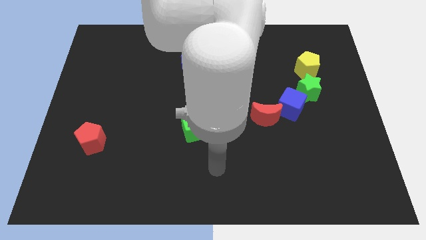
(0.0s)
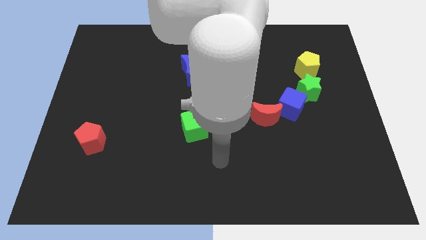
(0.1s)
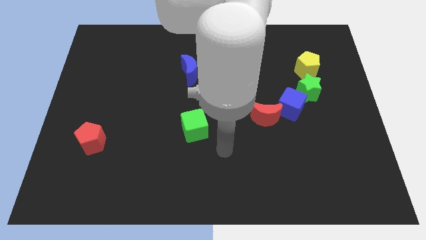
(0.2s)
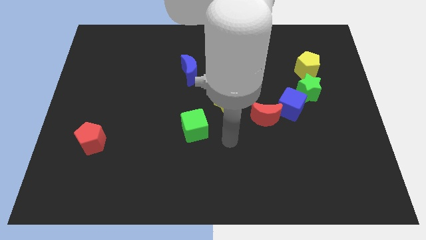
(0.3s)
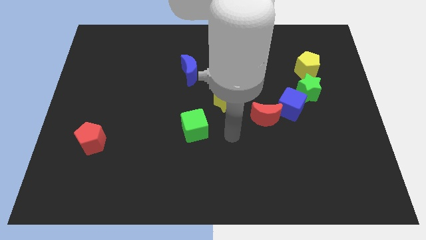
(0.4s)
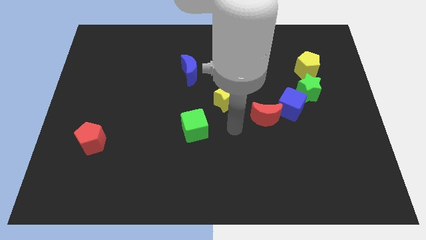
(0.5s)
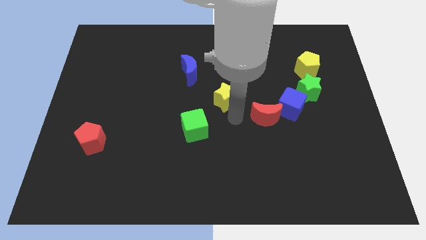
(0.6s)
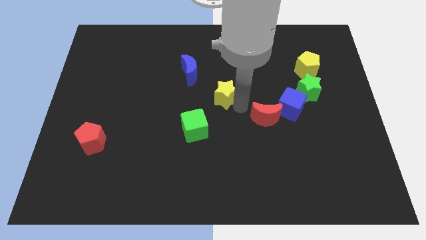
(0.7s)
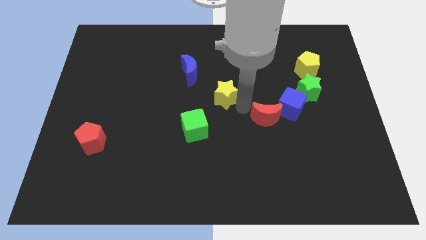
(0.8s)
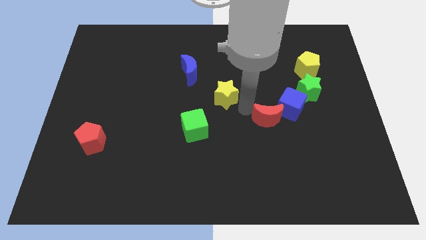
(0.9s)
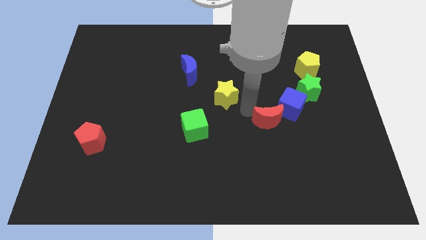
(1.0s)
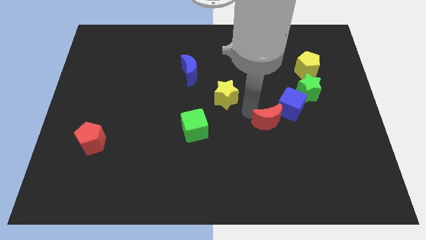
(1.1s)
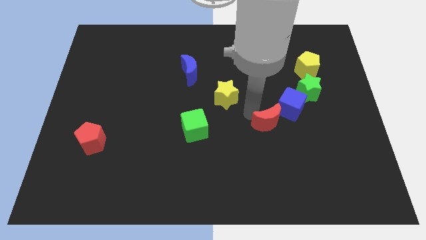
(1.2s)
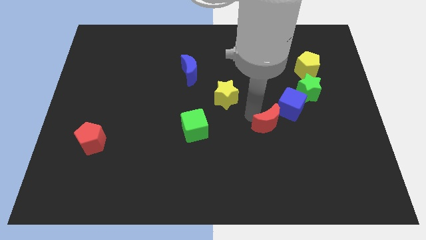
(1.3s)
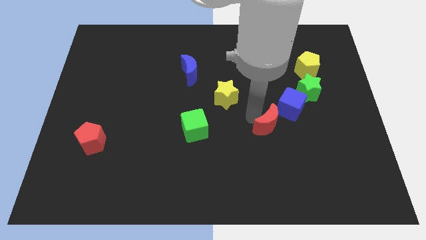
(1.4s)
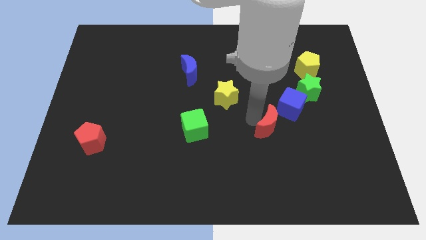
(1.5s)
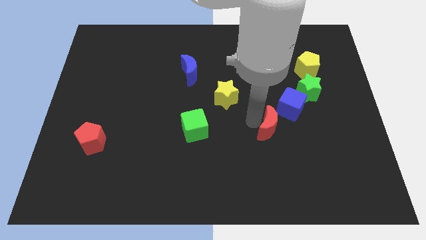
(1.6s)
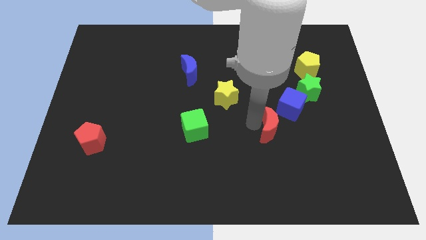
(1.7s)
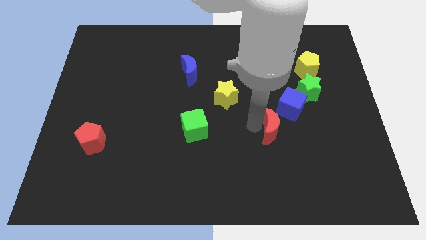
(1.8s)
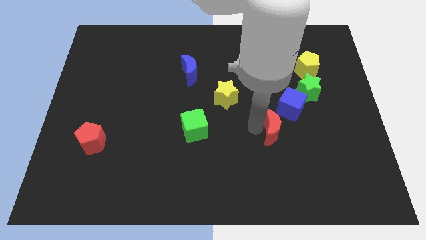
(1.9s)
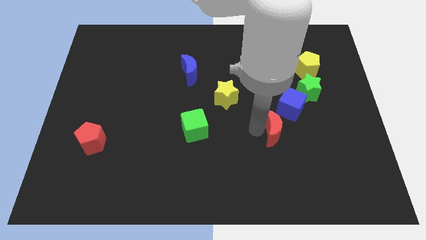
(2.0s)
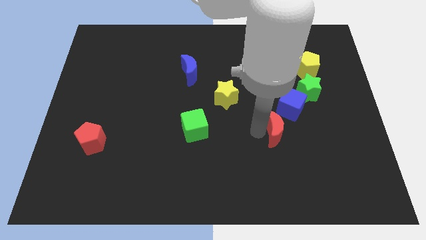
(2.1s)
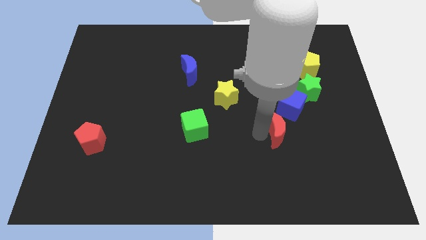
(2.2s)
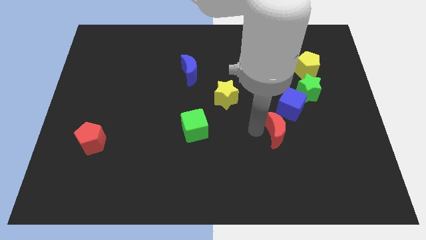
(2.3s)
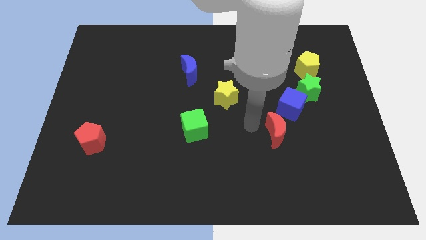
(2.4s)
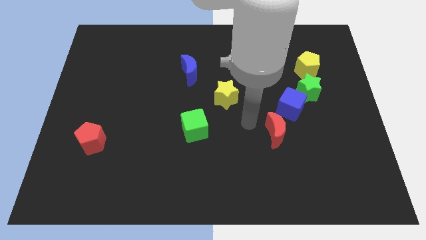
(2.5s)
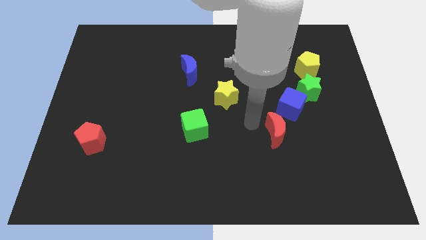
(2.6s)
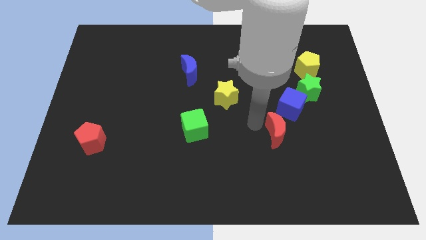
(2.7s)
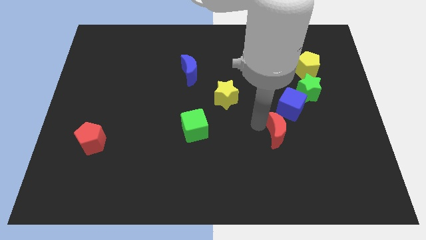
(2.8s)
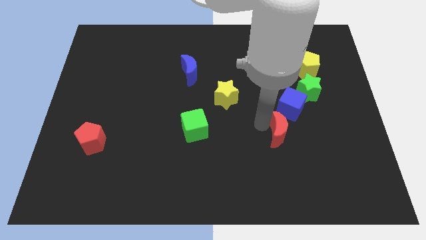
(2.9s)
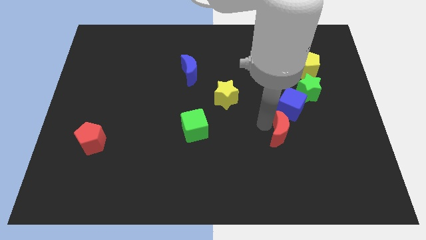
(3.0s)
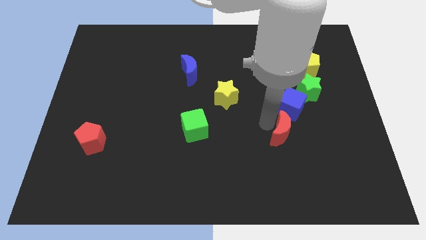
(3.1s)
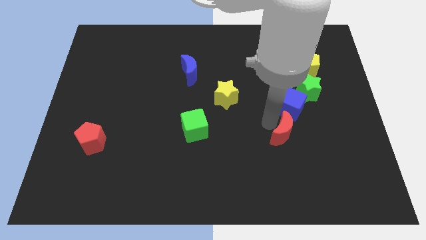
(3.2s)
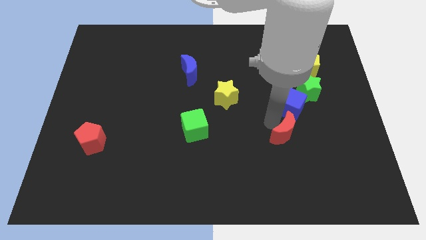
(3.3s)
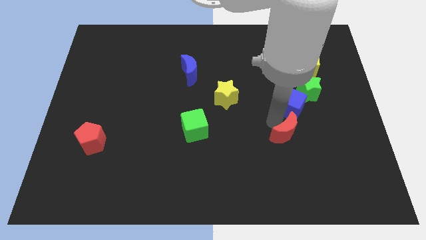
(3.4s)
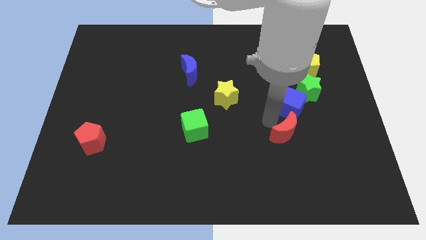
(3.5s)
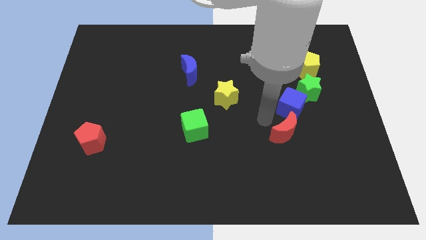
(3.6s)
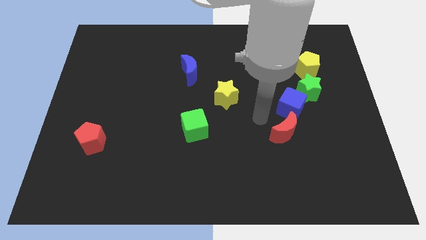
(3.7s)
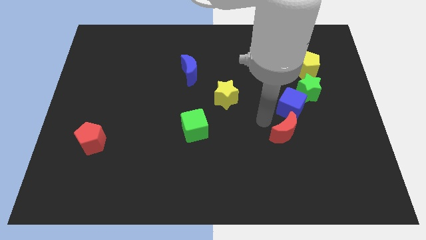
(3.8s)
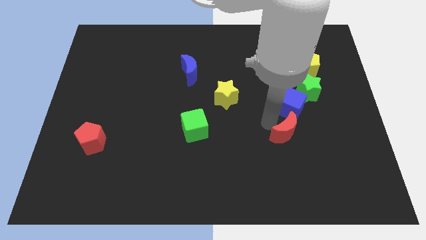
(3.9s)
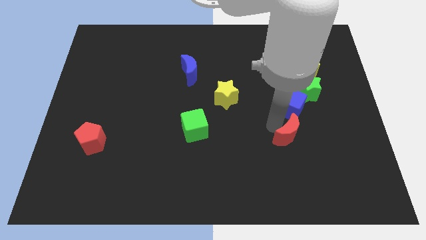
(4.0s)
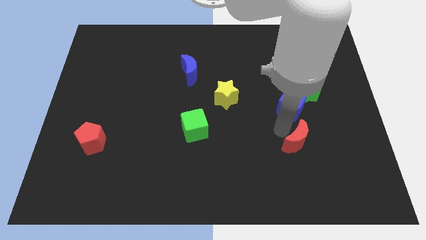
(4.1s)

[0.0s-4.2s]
move the red moon downwards and then right somewhat

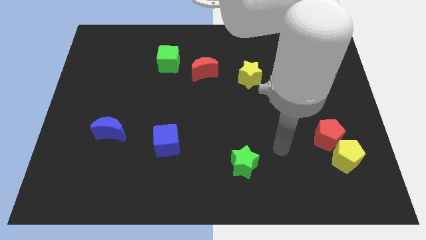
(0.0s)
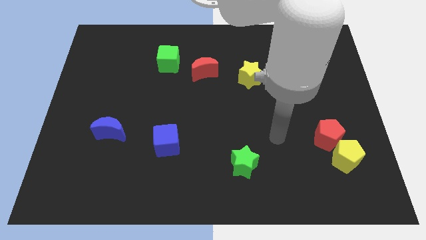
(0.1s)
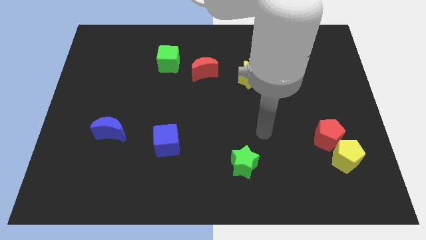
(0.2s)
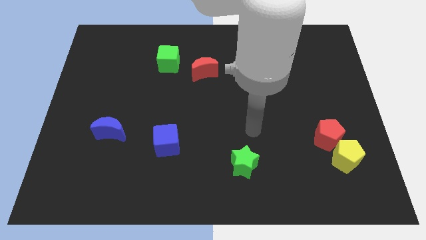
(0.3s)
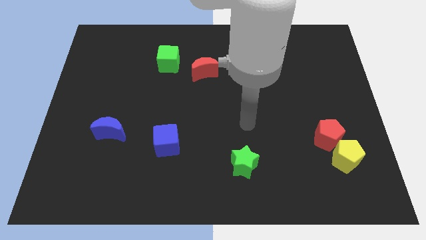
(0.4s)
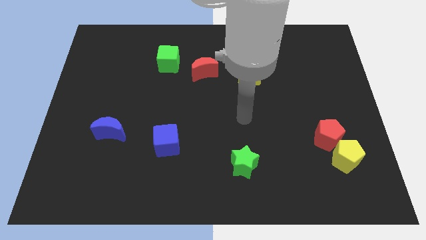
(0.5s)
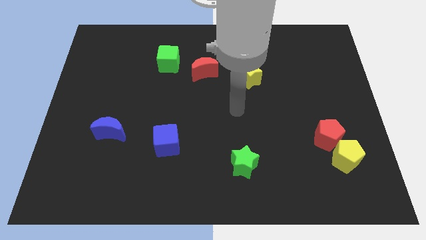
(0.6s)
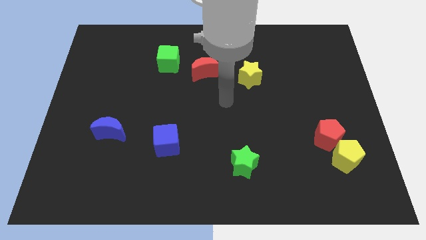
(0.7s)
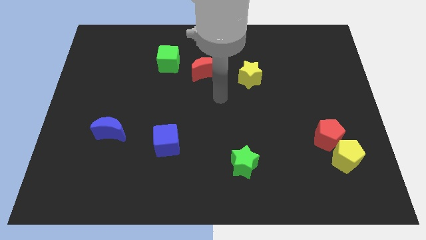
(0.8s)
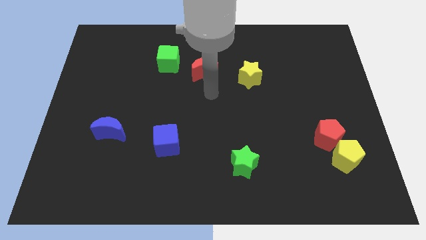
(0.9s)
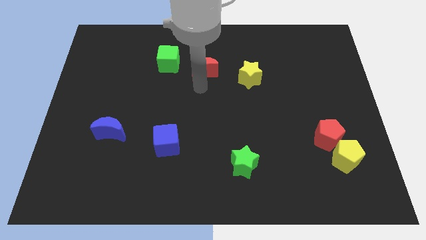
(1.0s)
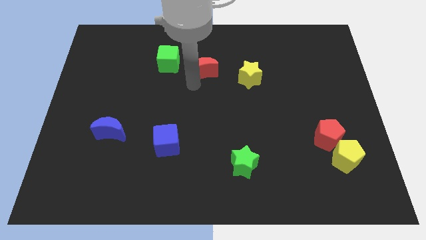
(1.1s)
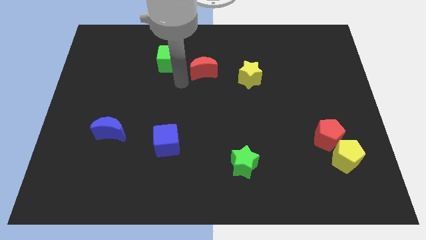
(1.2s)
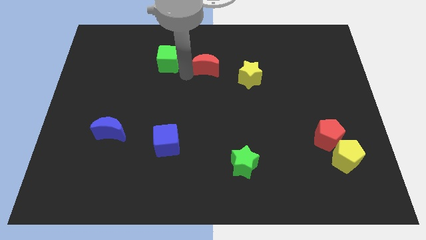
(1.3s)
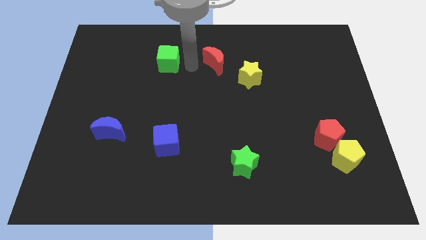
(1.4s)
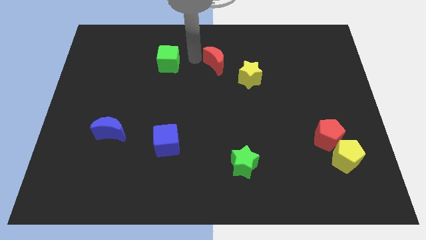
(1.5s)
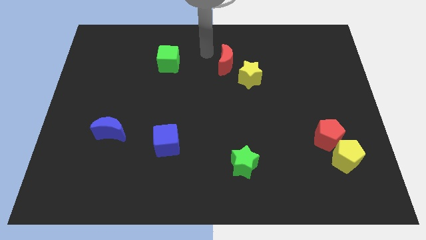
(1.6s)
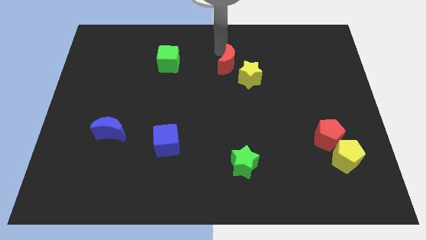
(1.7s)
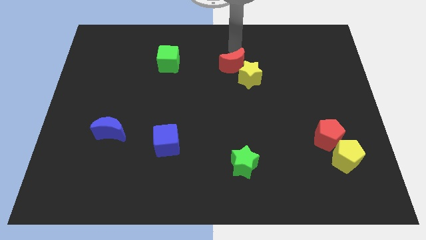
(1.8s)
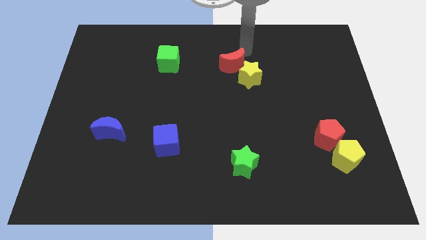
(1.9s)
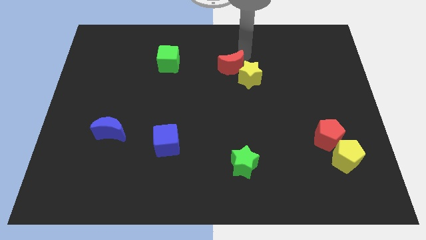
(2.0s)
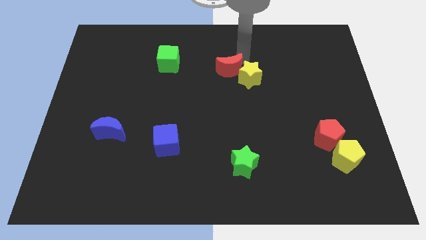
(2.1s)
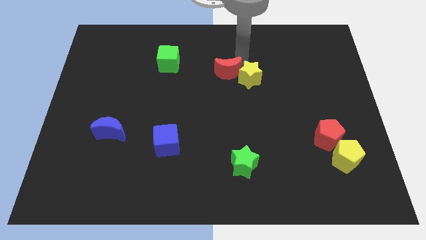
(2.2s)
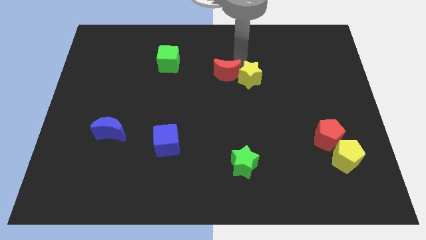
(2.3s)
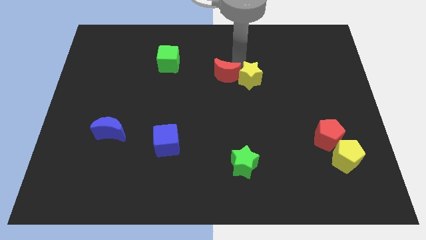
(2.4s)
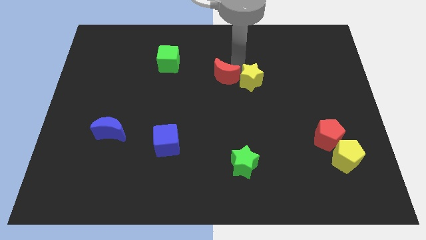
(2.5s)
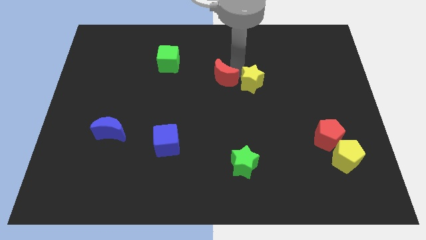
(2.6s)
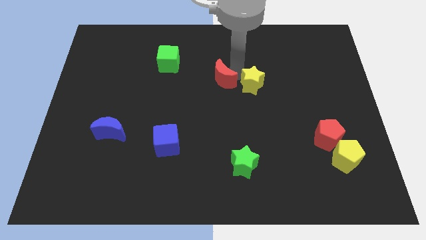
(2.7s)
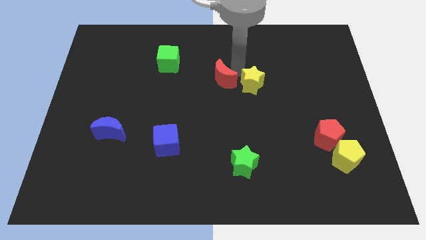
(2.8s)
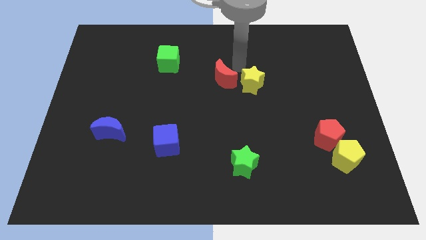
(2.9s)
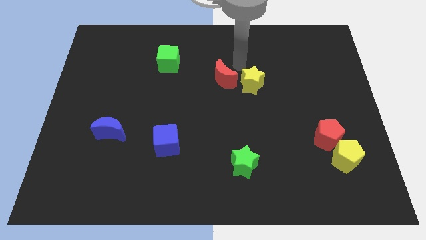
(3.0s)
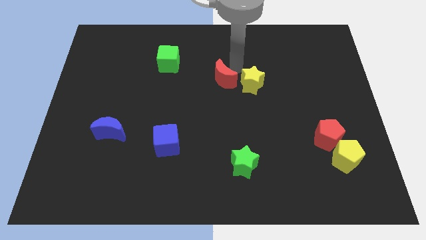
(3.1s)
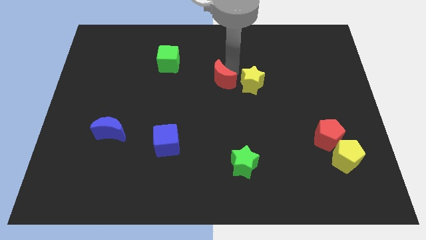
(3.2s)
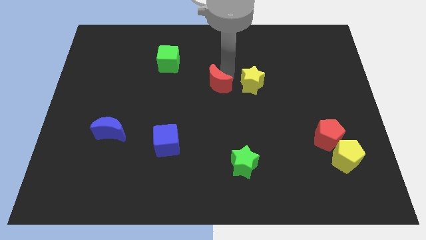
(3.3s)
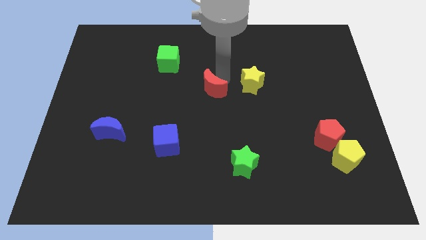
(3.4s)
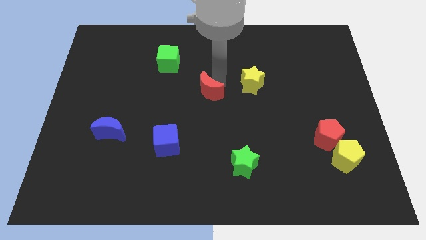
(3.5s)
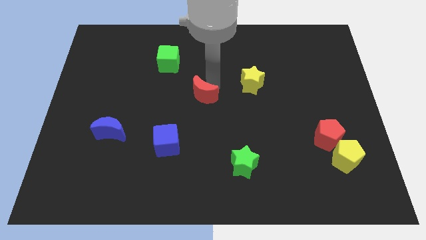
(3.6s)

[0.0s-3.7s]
move the red moon a little down
